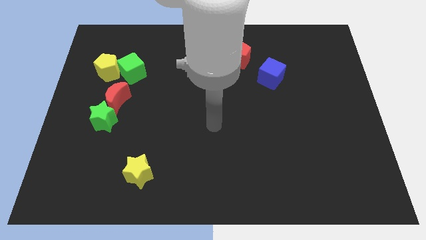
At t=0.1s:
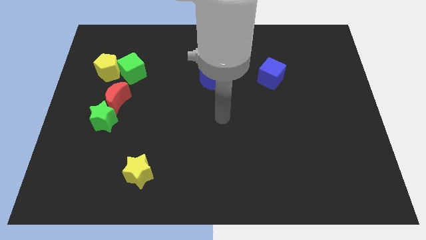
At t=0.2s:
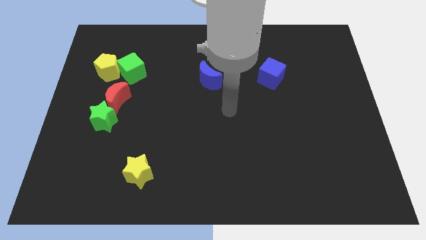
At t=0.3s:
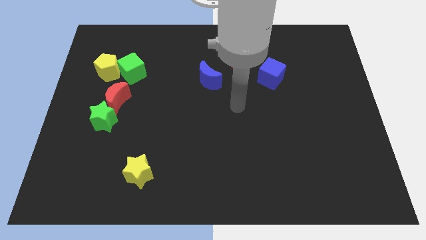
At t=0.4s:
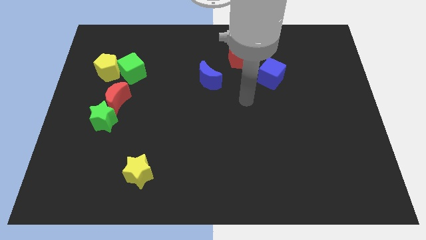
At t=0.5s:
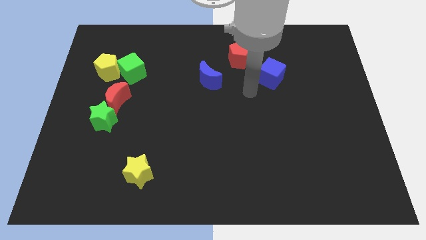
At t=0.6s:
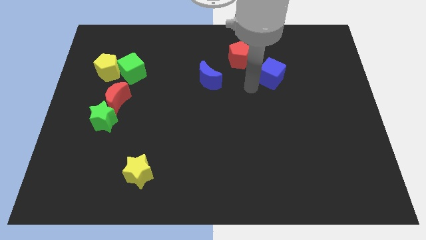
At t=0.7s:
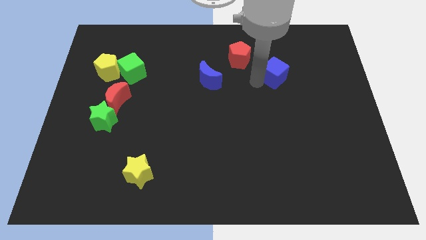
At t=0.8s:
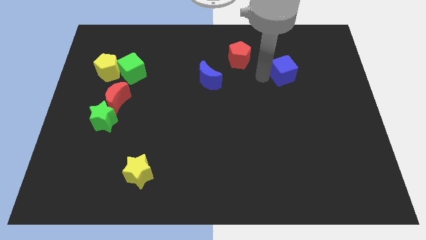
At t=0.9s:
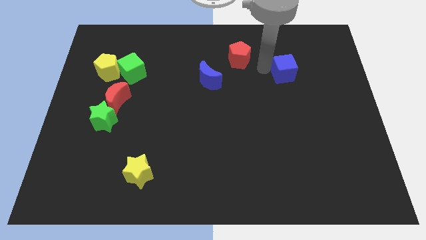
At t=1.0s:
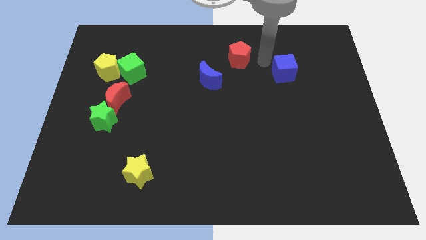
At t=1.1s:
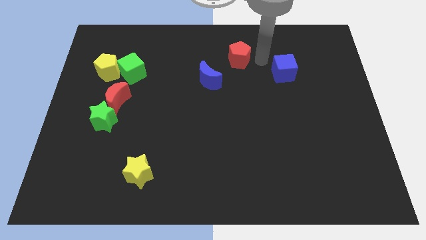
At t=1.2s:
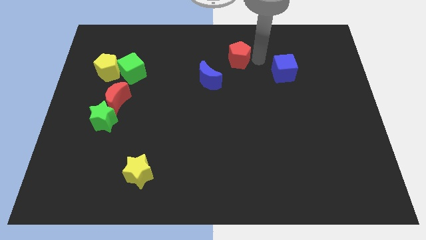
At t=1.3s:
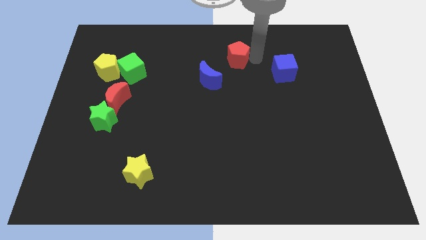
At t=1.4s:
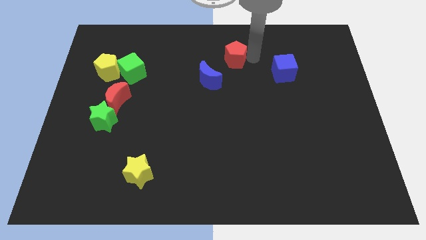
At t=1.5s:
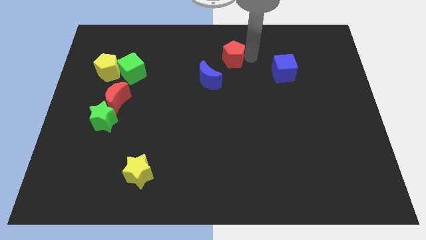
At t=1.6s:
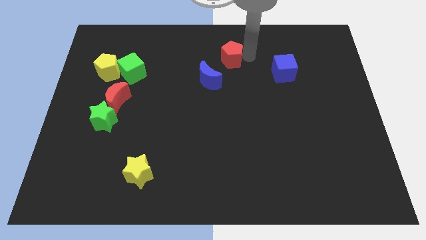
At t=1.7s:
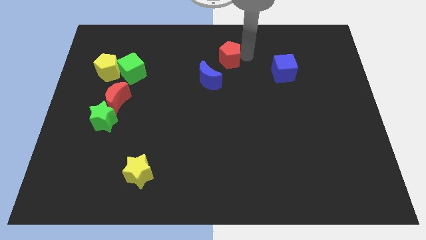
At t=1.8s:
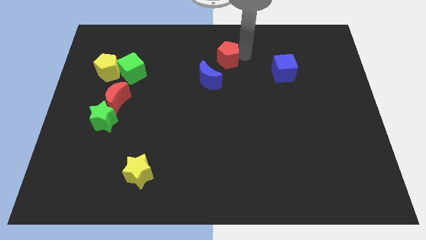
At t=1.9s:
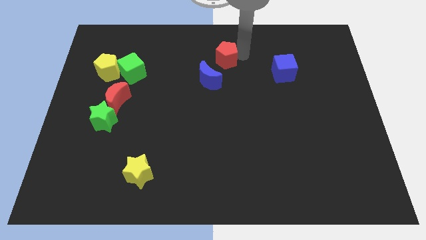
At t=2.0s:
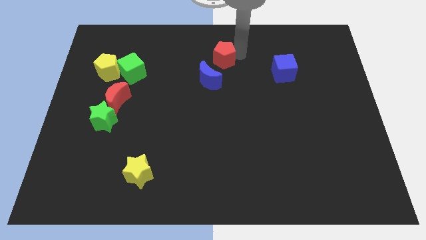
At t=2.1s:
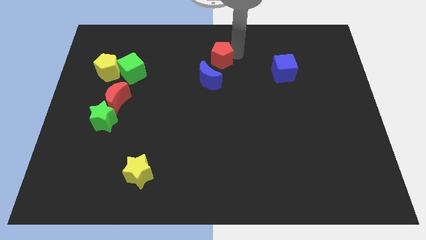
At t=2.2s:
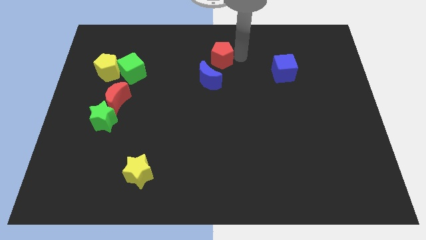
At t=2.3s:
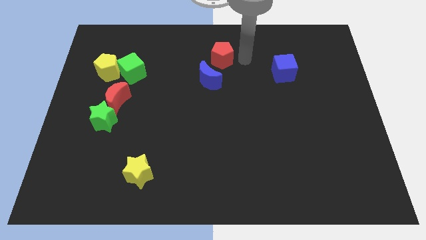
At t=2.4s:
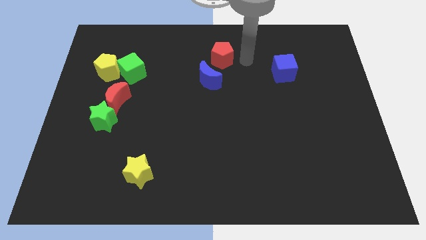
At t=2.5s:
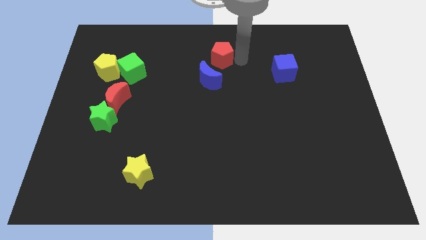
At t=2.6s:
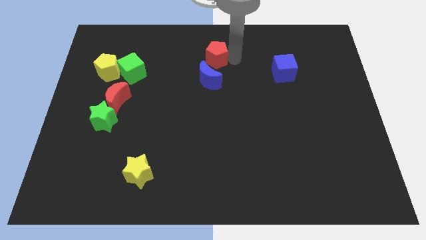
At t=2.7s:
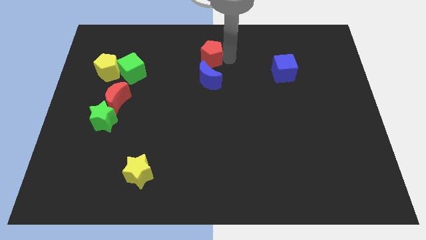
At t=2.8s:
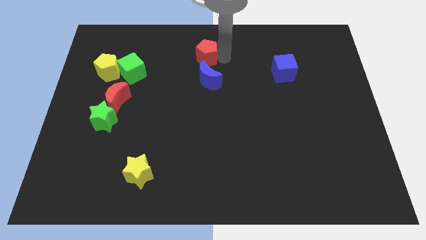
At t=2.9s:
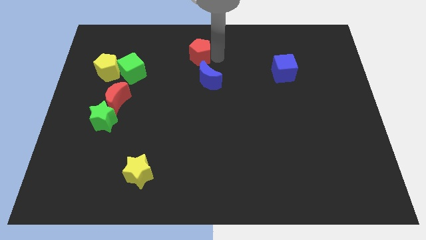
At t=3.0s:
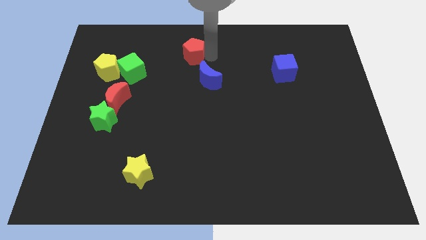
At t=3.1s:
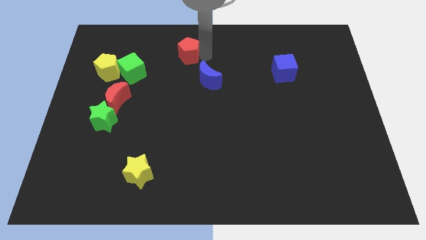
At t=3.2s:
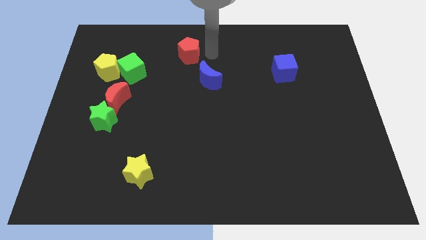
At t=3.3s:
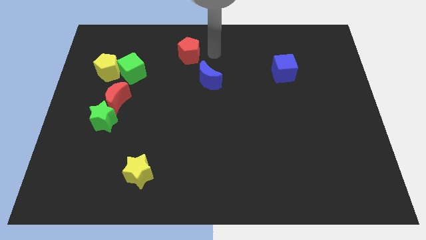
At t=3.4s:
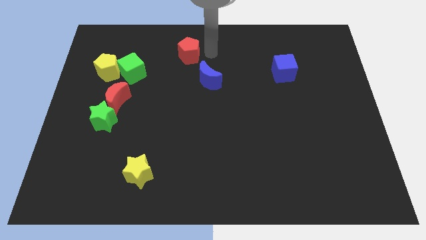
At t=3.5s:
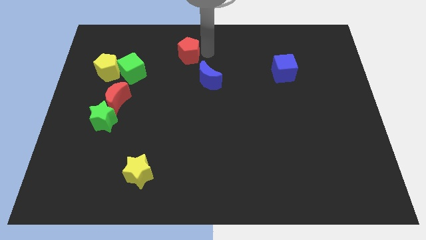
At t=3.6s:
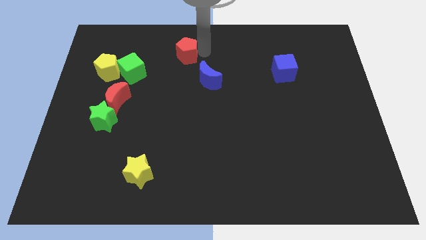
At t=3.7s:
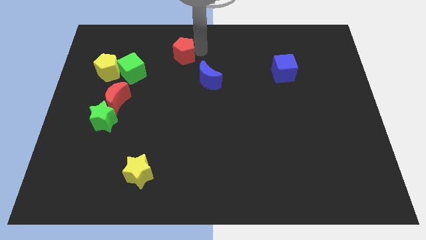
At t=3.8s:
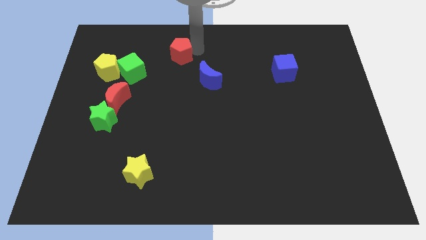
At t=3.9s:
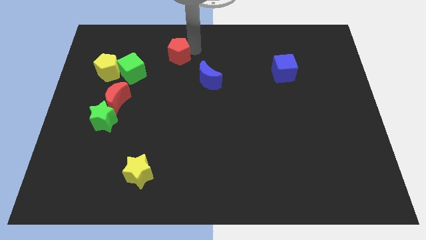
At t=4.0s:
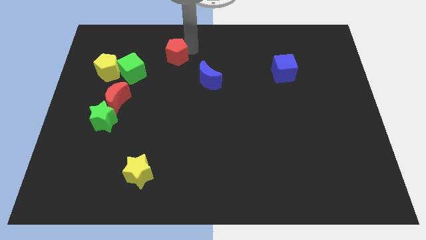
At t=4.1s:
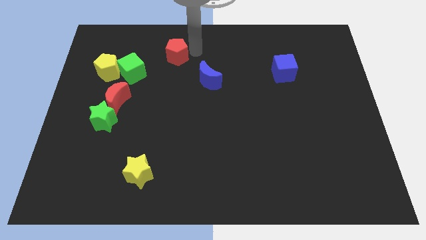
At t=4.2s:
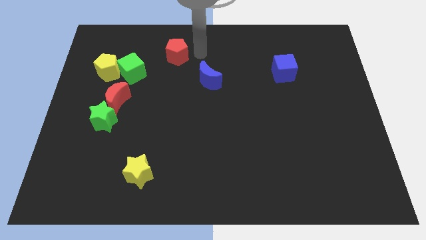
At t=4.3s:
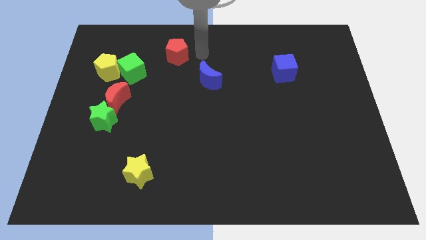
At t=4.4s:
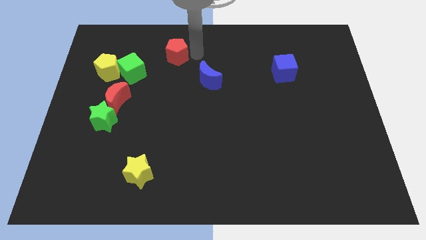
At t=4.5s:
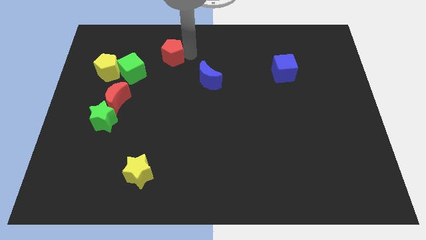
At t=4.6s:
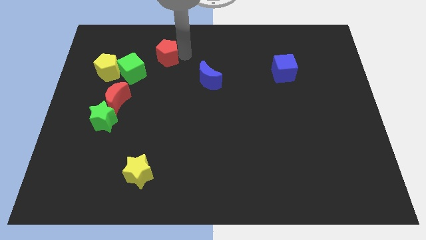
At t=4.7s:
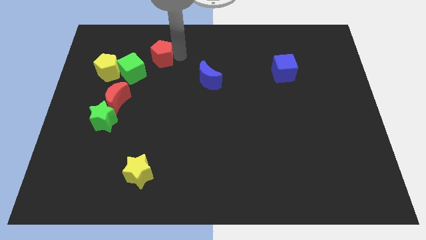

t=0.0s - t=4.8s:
move the red pentagon to the left

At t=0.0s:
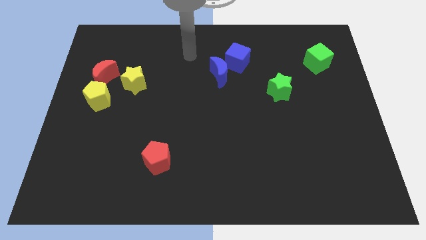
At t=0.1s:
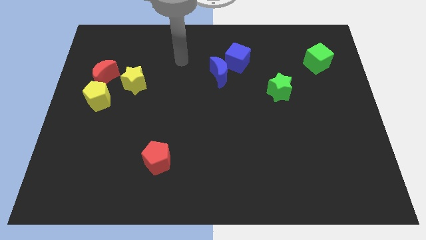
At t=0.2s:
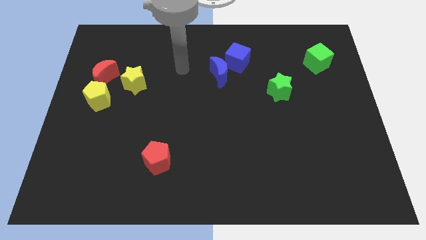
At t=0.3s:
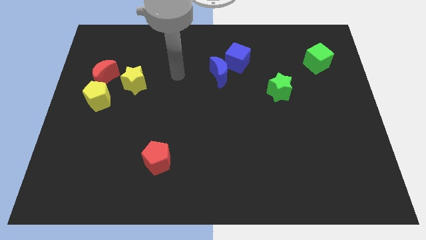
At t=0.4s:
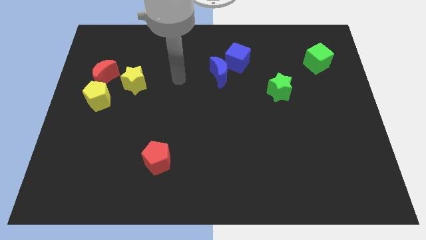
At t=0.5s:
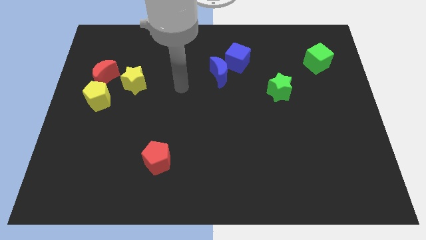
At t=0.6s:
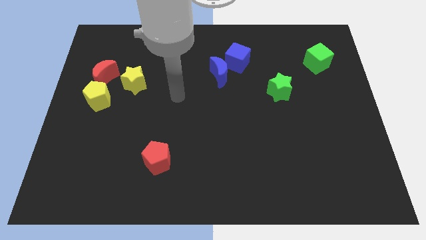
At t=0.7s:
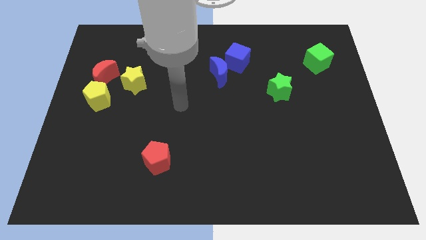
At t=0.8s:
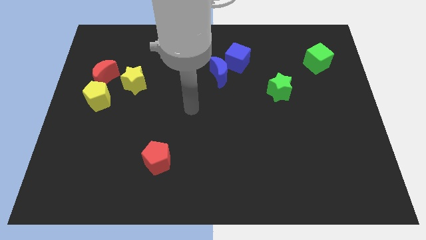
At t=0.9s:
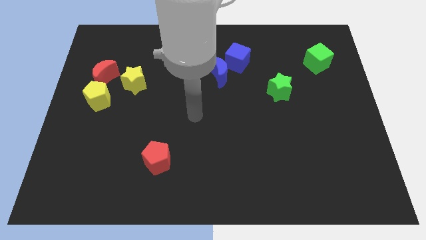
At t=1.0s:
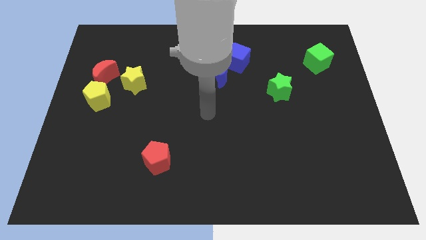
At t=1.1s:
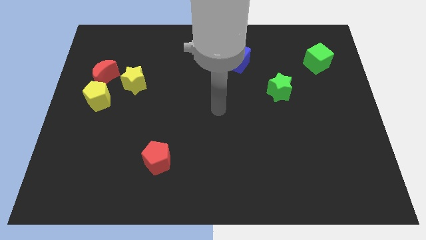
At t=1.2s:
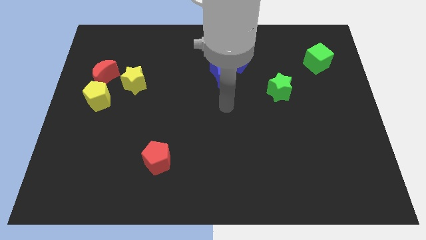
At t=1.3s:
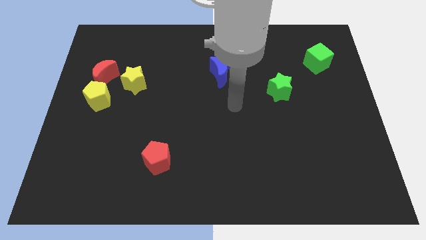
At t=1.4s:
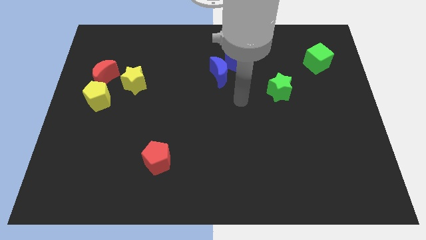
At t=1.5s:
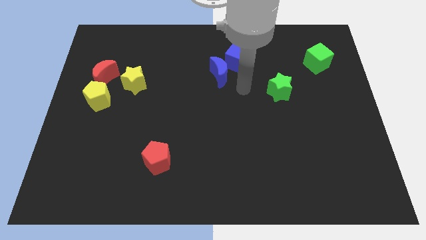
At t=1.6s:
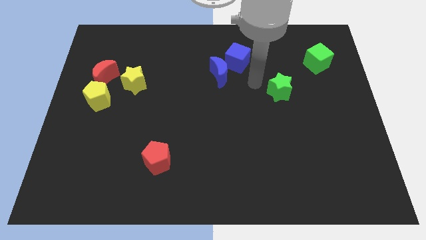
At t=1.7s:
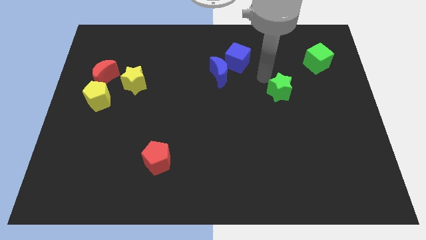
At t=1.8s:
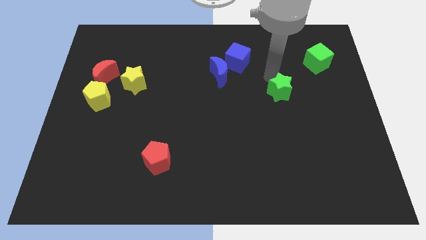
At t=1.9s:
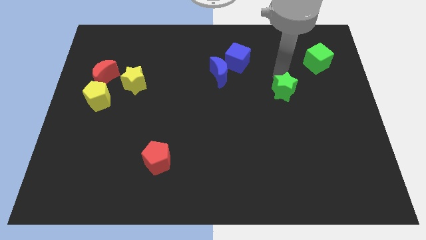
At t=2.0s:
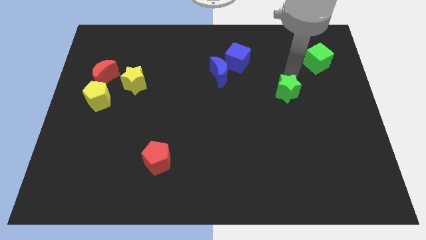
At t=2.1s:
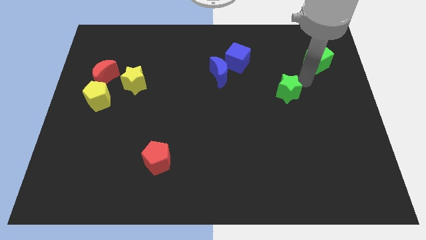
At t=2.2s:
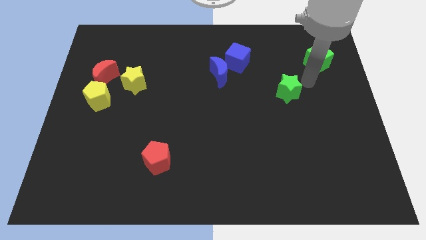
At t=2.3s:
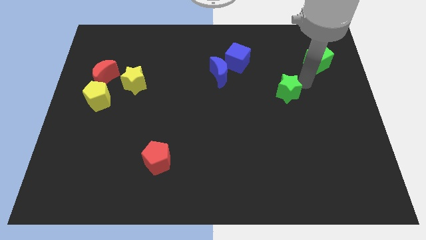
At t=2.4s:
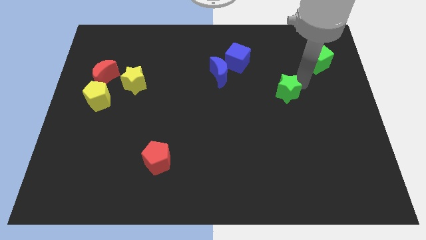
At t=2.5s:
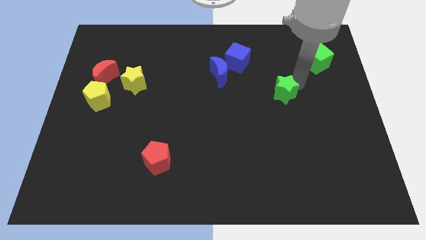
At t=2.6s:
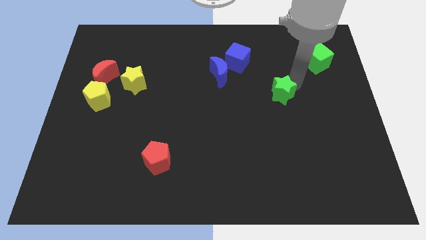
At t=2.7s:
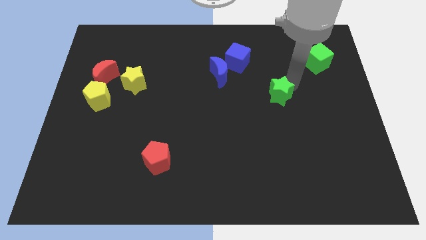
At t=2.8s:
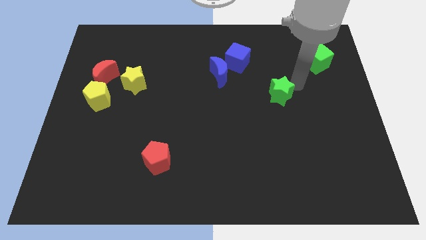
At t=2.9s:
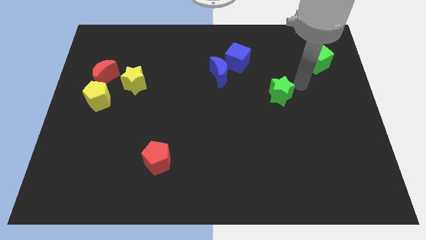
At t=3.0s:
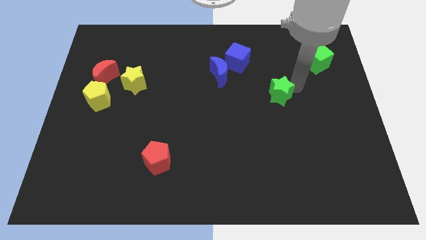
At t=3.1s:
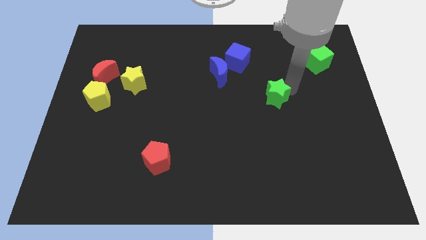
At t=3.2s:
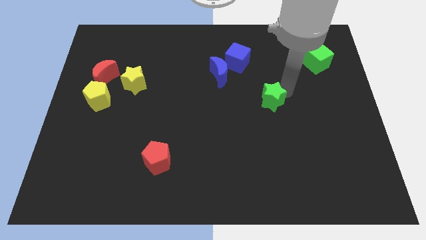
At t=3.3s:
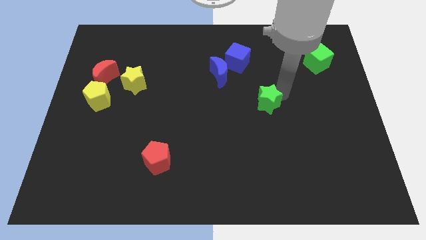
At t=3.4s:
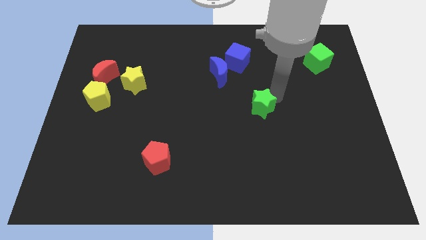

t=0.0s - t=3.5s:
slightly slide the green star down and to the left diagonally
